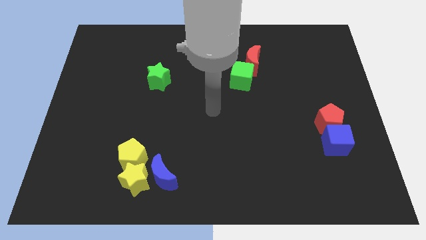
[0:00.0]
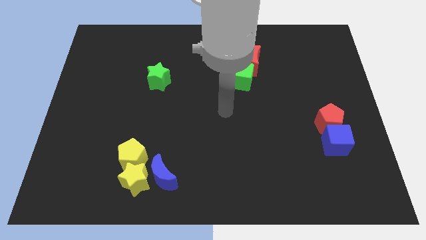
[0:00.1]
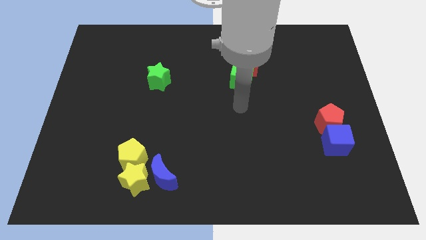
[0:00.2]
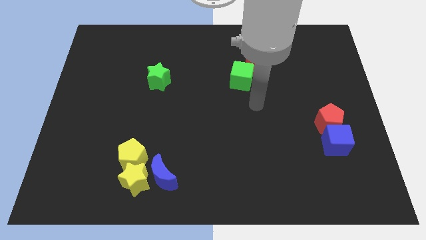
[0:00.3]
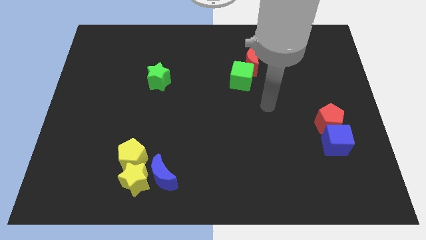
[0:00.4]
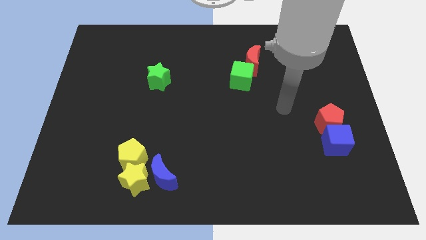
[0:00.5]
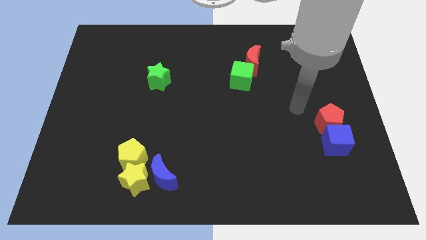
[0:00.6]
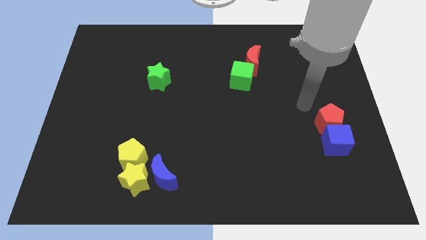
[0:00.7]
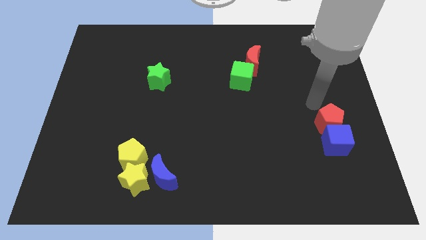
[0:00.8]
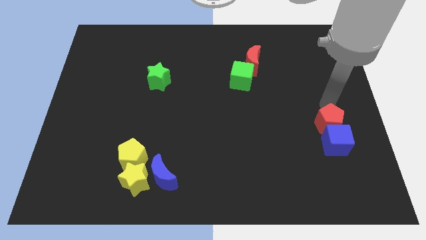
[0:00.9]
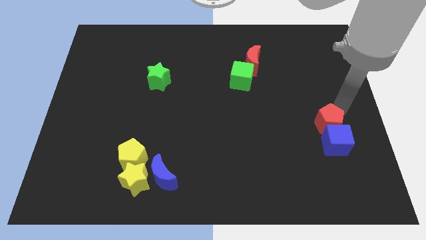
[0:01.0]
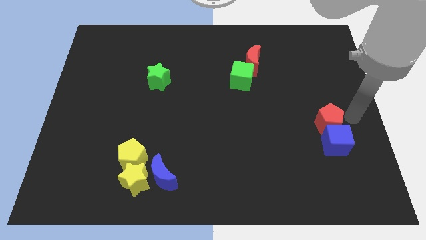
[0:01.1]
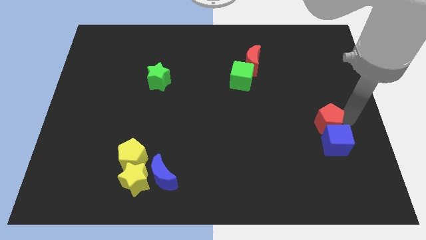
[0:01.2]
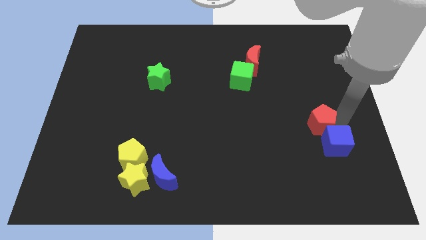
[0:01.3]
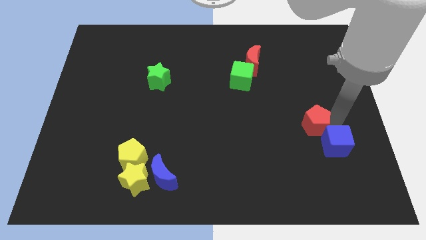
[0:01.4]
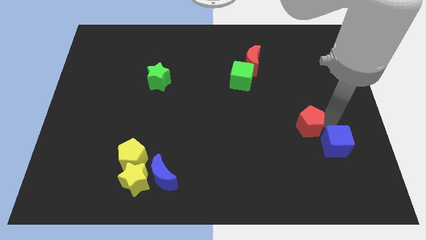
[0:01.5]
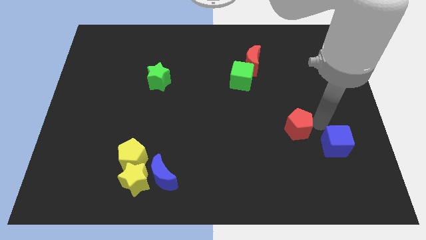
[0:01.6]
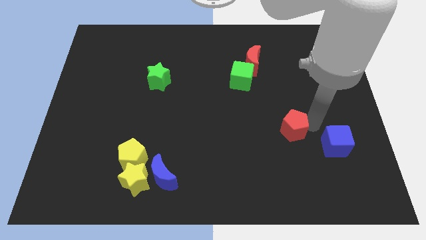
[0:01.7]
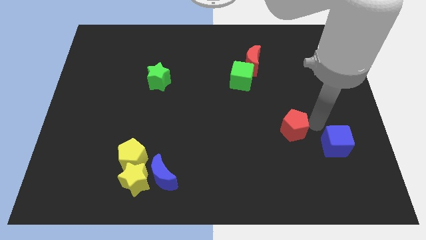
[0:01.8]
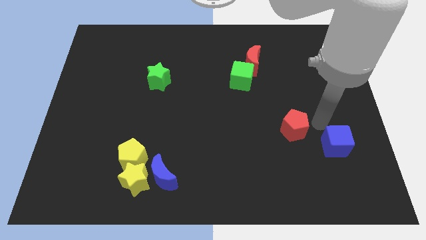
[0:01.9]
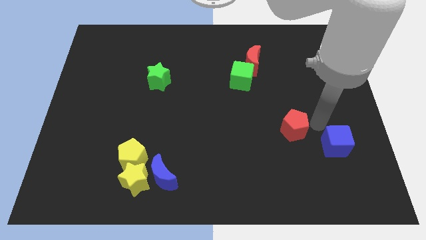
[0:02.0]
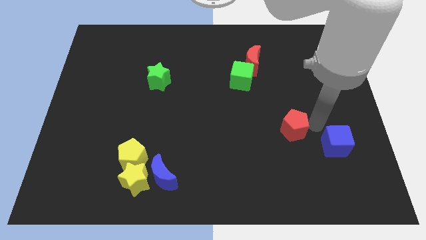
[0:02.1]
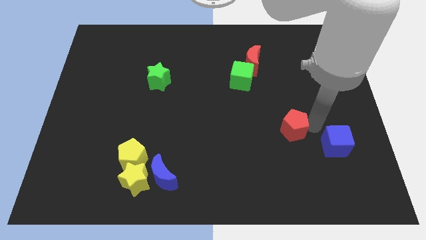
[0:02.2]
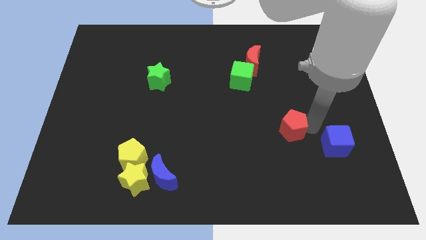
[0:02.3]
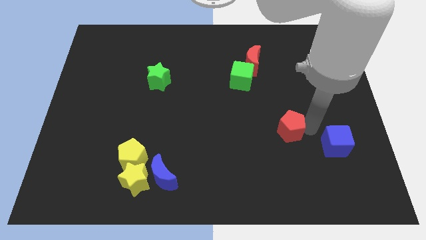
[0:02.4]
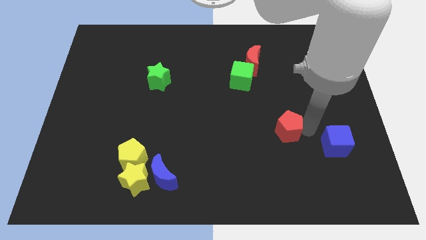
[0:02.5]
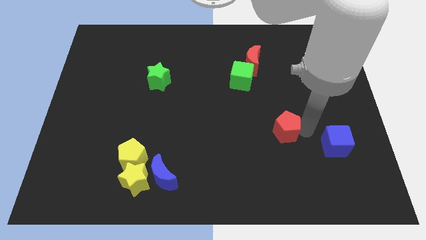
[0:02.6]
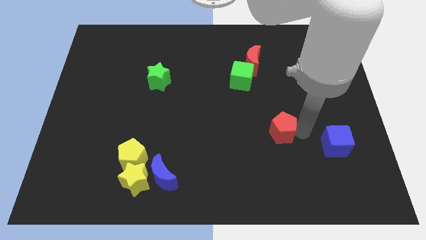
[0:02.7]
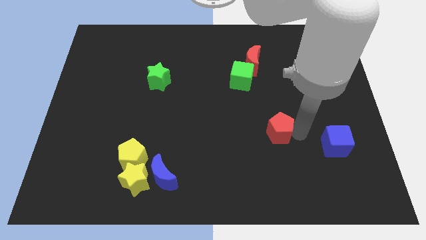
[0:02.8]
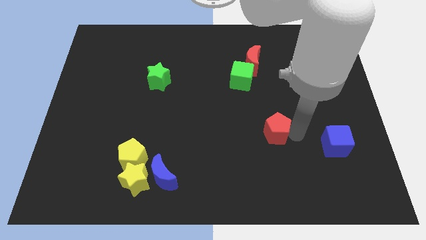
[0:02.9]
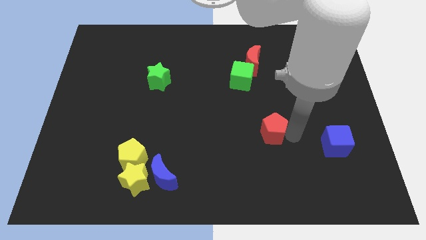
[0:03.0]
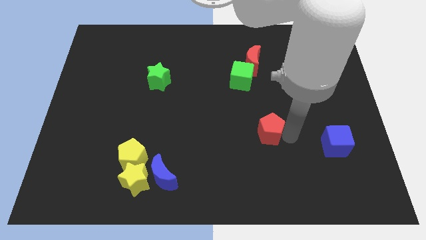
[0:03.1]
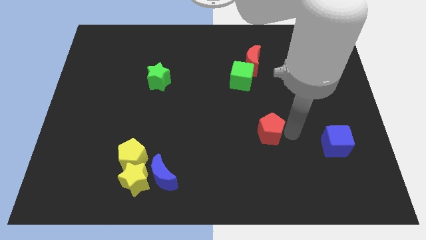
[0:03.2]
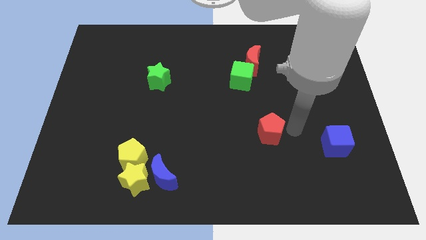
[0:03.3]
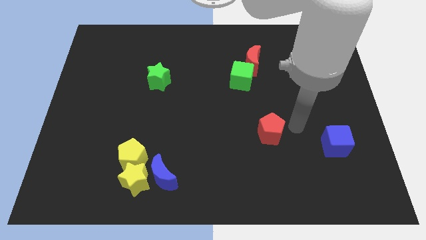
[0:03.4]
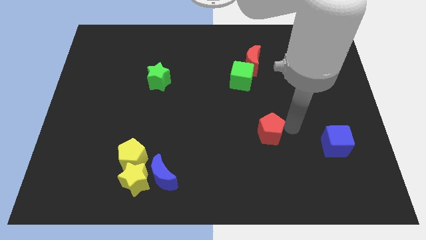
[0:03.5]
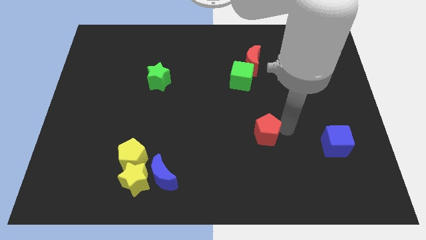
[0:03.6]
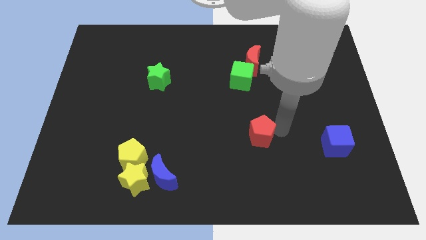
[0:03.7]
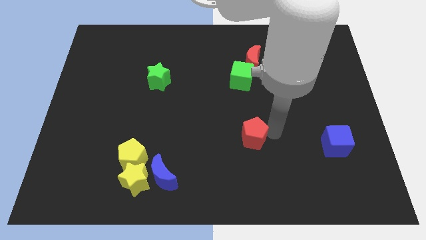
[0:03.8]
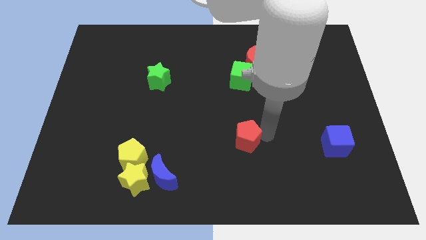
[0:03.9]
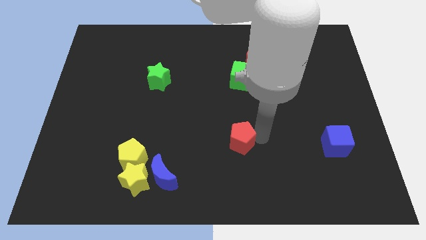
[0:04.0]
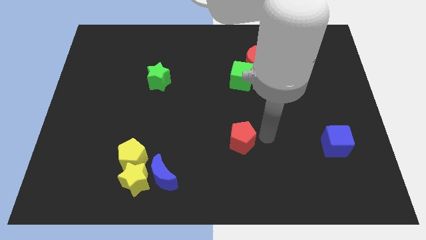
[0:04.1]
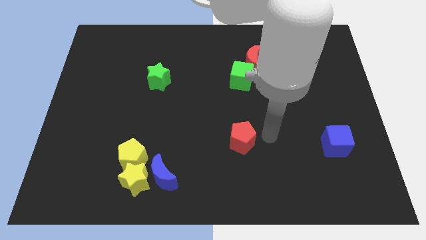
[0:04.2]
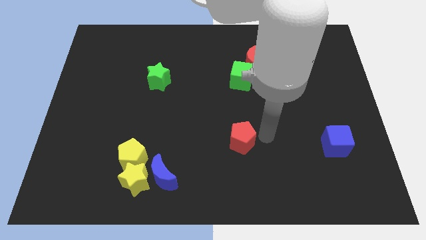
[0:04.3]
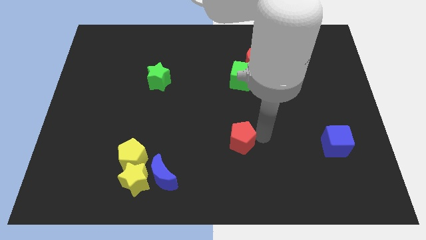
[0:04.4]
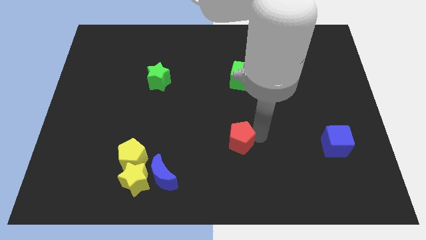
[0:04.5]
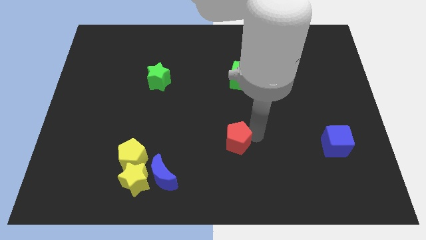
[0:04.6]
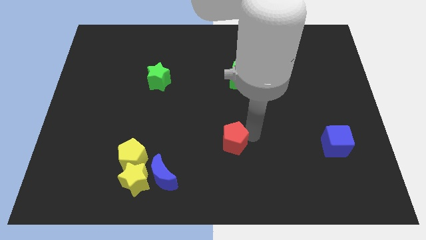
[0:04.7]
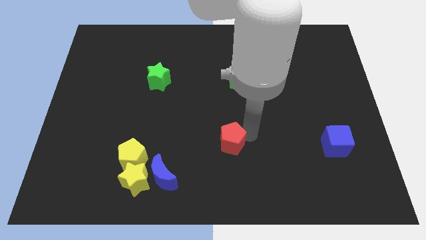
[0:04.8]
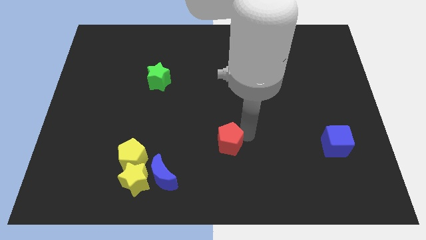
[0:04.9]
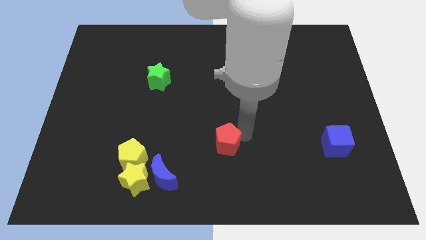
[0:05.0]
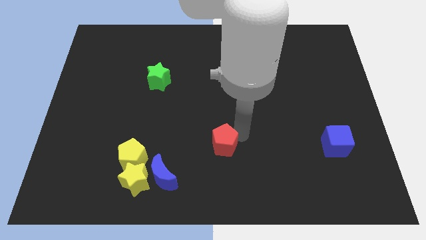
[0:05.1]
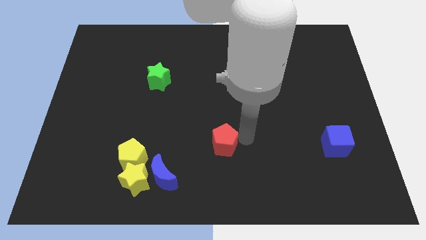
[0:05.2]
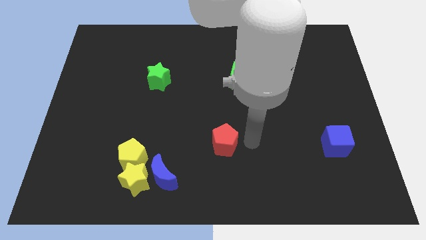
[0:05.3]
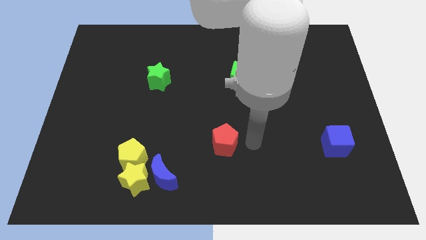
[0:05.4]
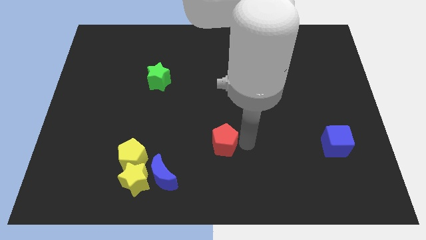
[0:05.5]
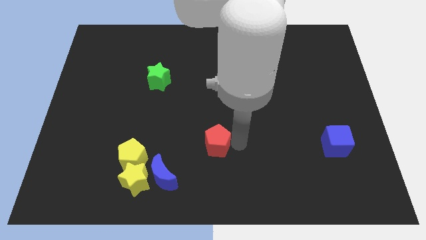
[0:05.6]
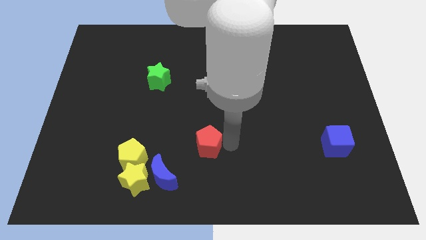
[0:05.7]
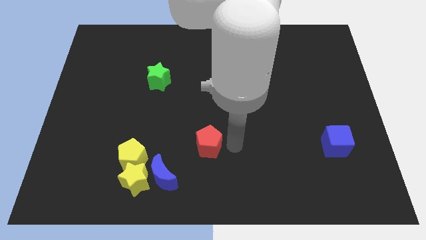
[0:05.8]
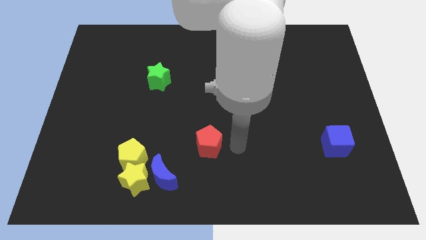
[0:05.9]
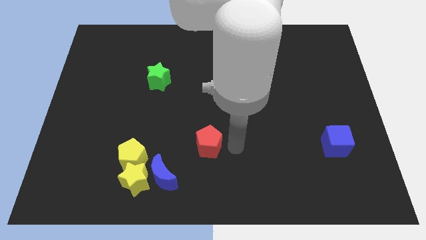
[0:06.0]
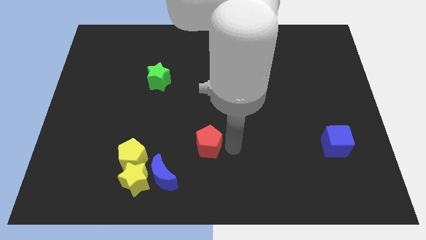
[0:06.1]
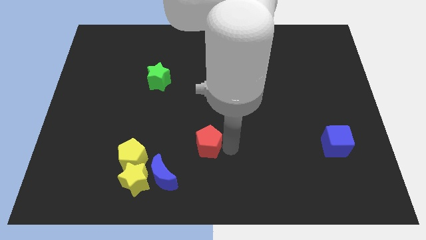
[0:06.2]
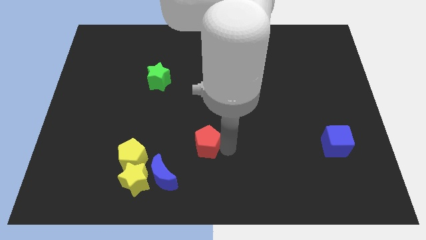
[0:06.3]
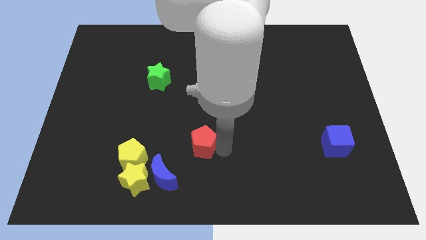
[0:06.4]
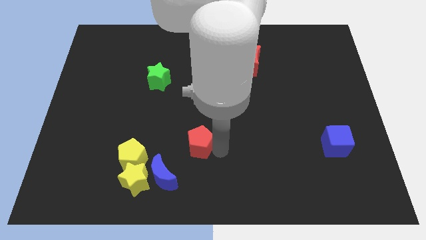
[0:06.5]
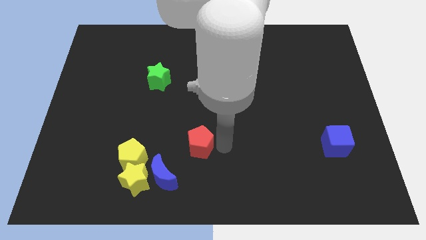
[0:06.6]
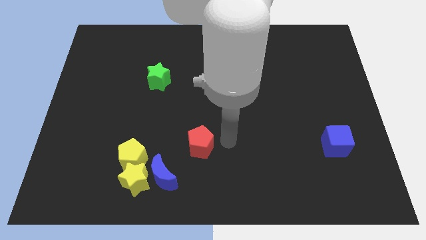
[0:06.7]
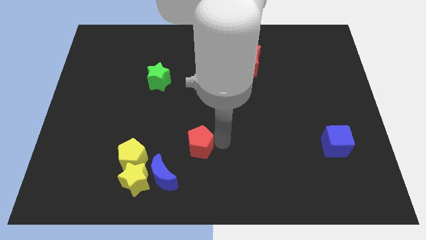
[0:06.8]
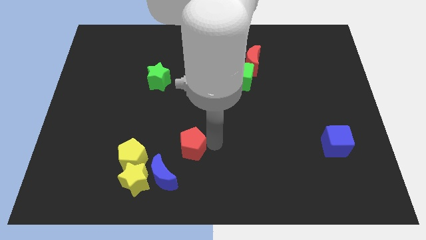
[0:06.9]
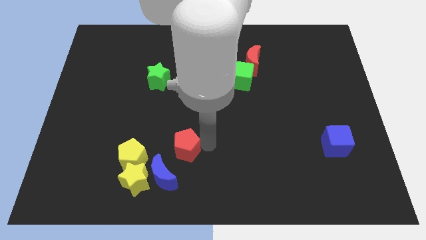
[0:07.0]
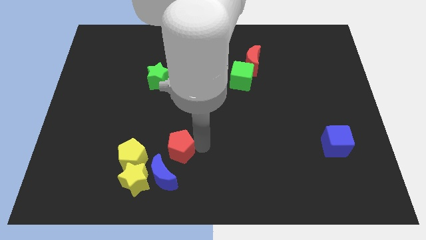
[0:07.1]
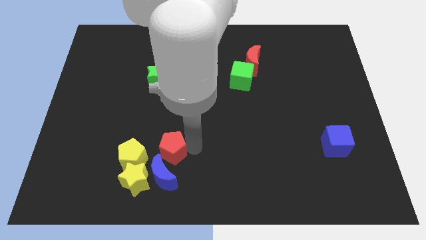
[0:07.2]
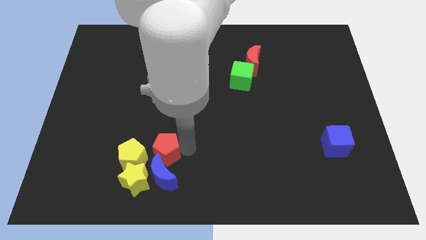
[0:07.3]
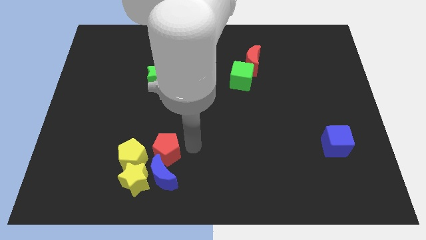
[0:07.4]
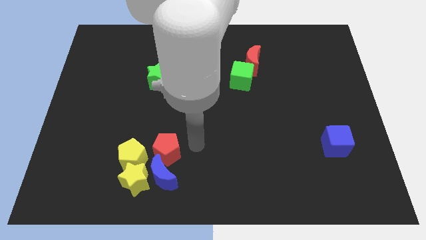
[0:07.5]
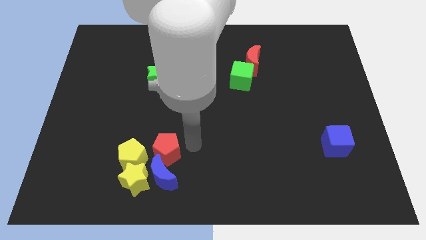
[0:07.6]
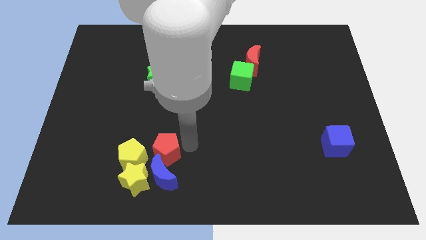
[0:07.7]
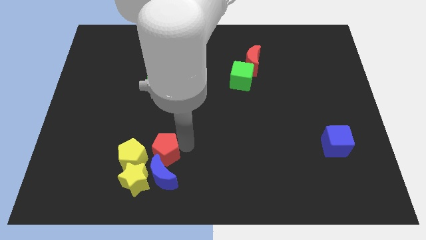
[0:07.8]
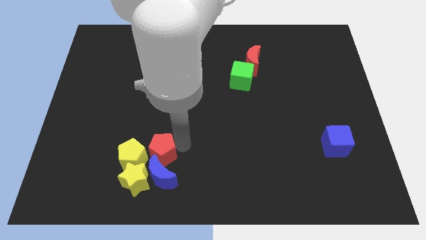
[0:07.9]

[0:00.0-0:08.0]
put the red pentagon to the yellow pentagon
